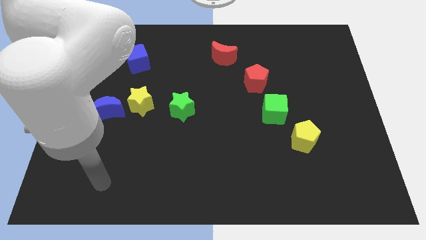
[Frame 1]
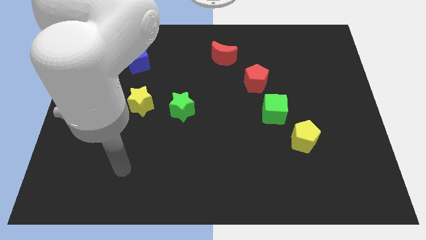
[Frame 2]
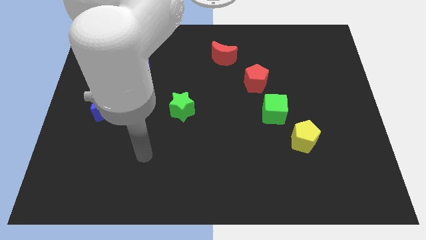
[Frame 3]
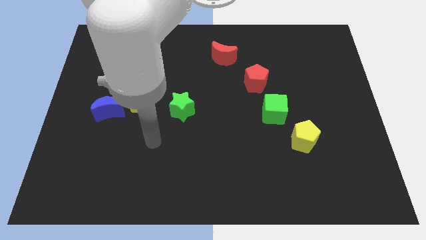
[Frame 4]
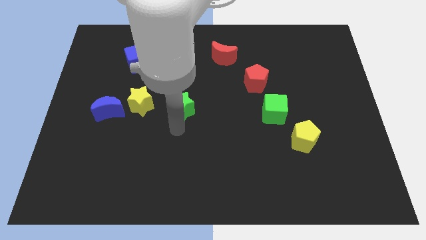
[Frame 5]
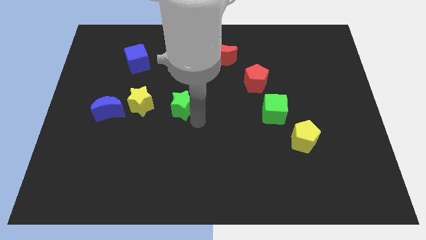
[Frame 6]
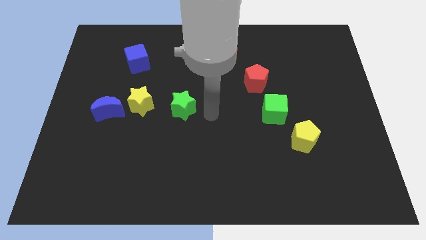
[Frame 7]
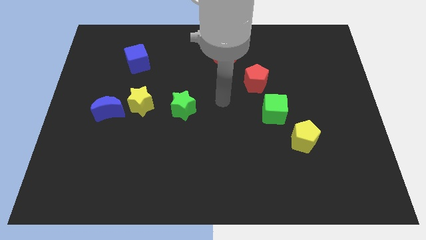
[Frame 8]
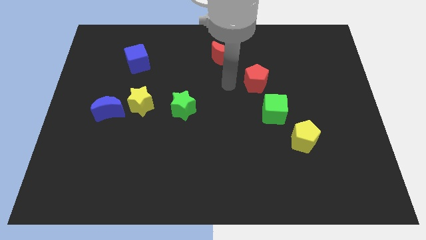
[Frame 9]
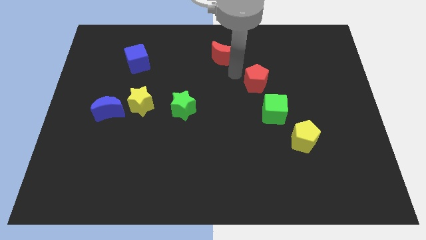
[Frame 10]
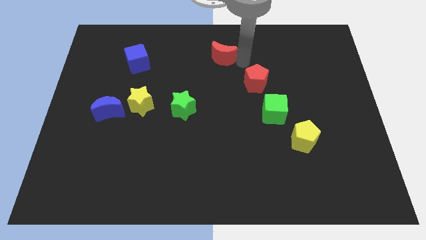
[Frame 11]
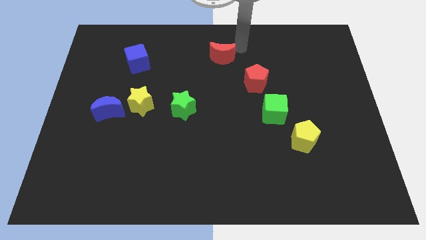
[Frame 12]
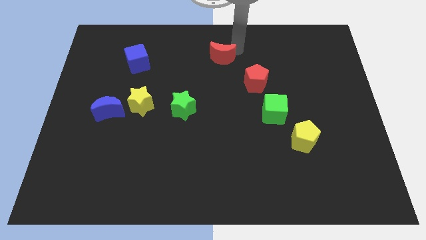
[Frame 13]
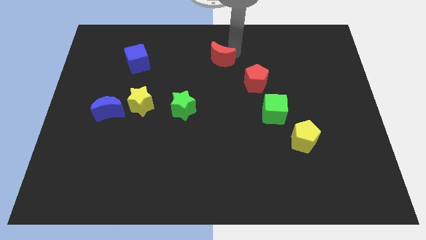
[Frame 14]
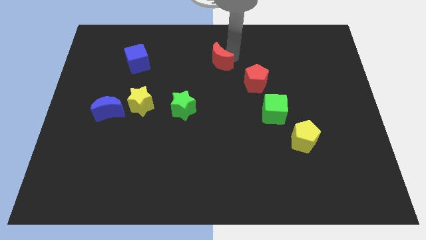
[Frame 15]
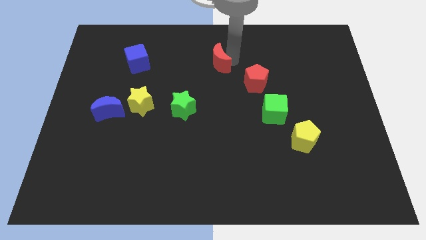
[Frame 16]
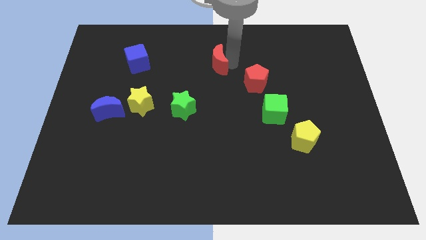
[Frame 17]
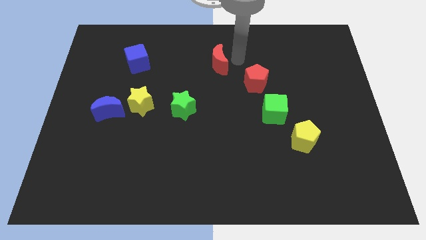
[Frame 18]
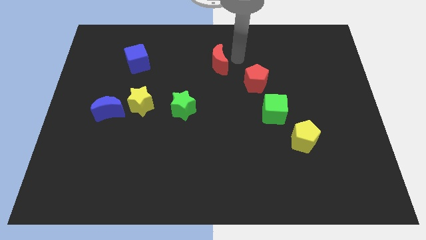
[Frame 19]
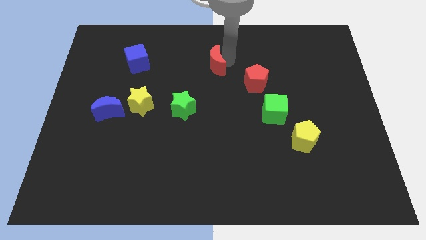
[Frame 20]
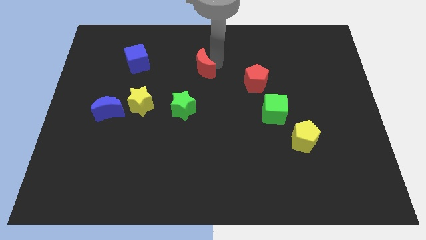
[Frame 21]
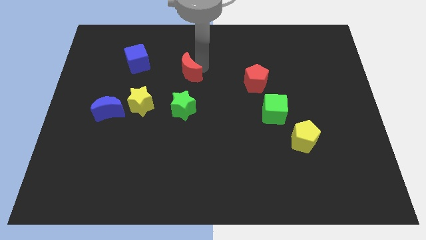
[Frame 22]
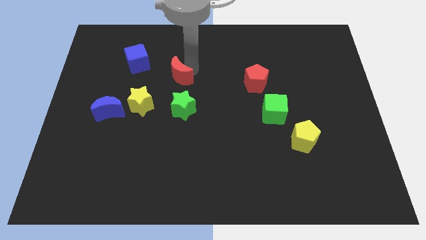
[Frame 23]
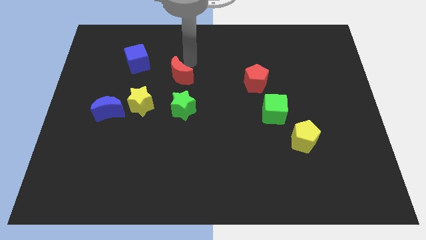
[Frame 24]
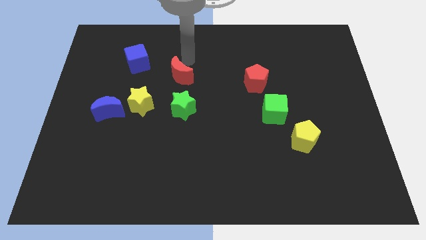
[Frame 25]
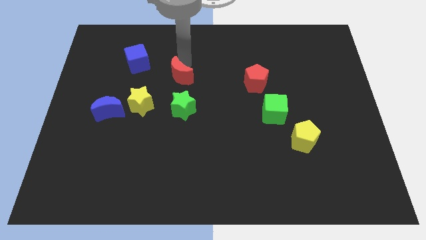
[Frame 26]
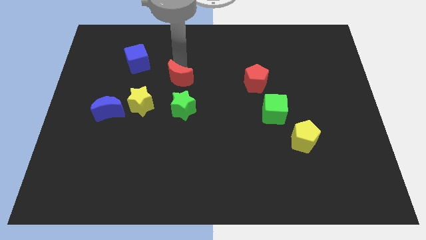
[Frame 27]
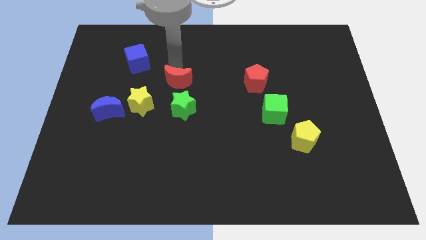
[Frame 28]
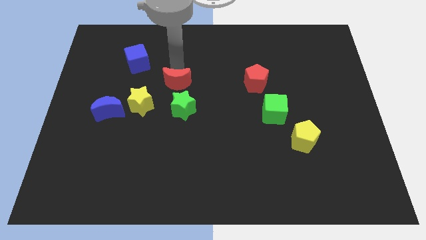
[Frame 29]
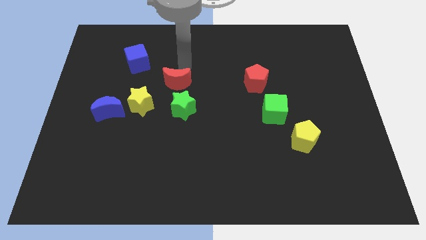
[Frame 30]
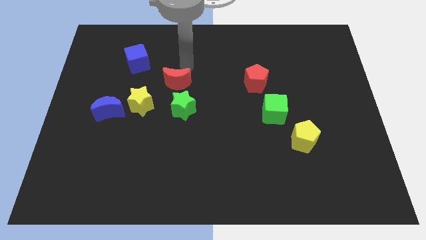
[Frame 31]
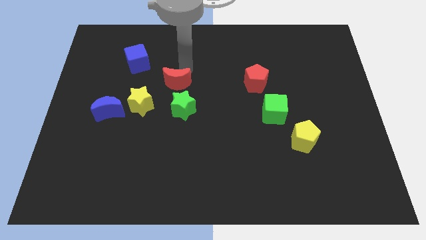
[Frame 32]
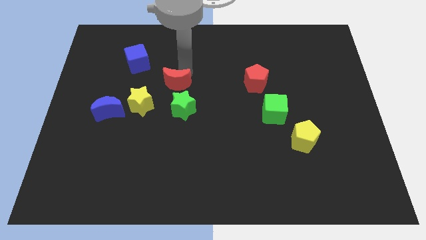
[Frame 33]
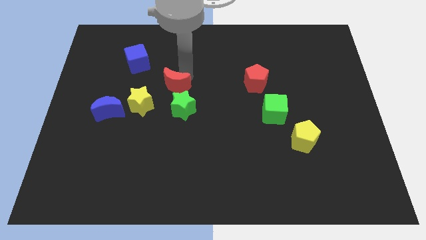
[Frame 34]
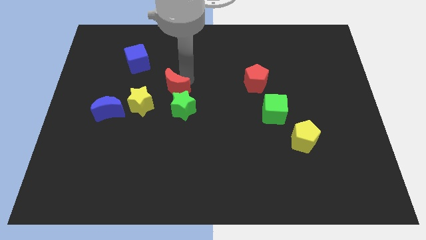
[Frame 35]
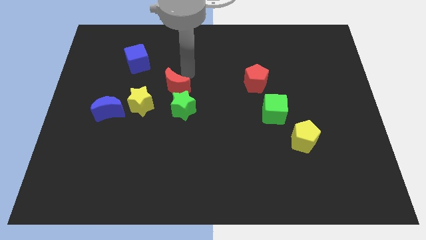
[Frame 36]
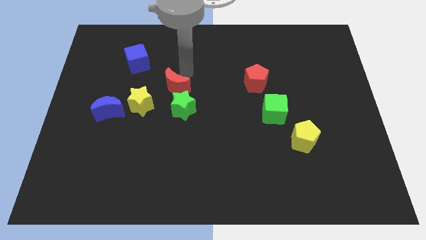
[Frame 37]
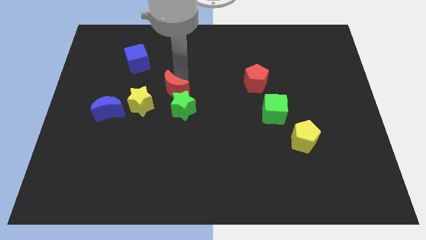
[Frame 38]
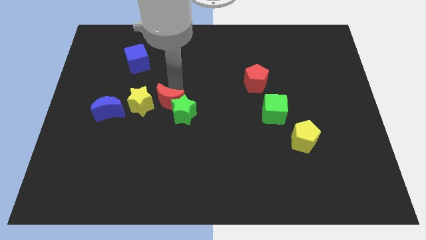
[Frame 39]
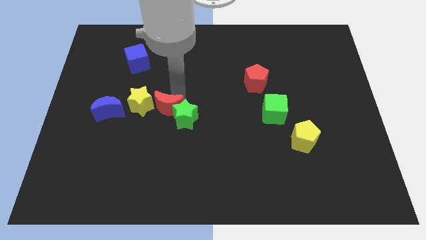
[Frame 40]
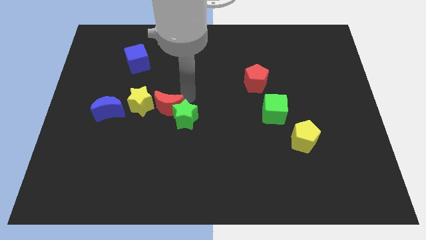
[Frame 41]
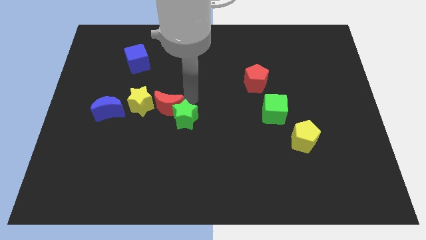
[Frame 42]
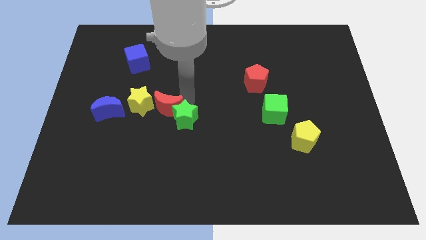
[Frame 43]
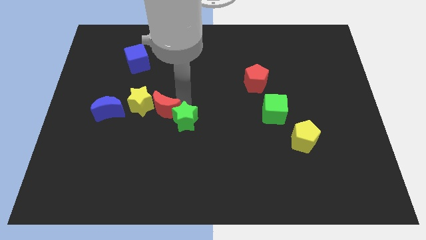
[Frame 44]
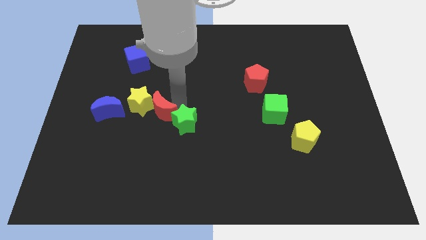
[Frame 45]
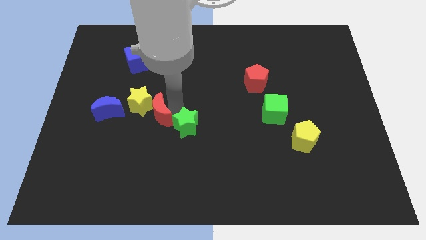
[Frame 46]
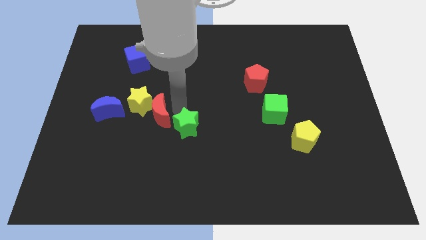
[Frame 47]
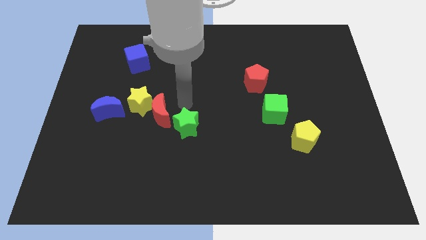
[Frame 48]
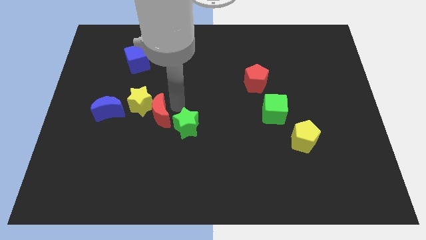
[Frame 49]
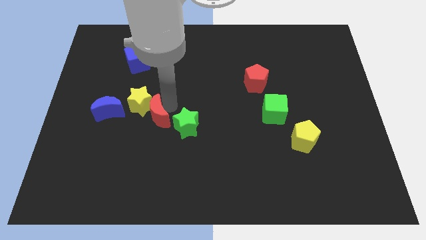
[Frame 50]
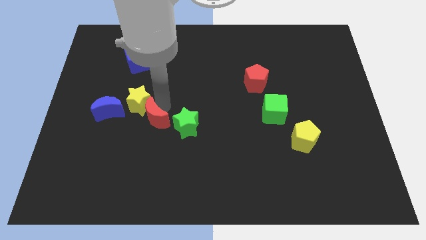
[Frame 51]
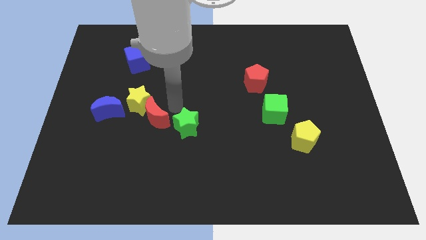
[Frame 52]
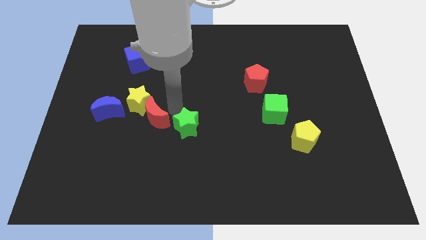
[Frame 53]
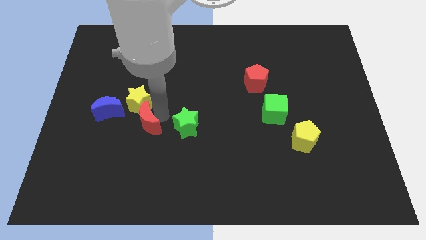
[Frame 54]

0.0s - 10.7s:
put the red moon to the bottom right side of the blue moon

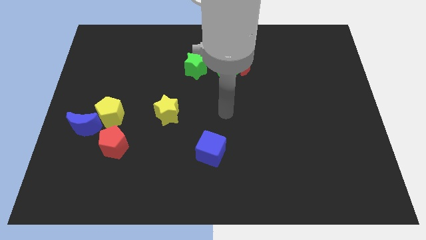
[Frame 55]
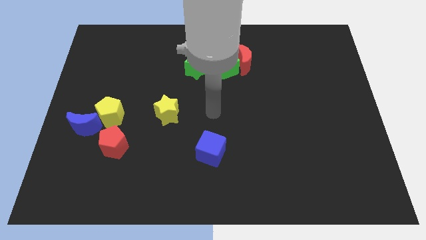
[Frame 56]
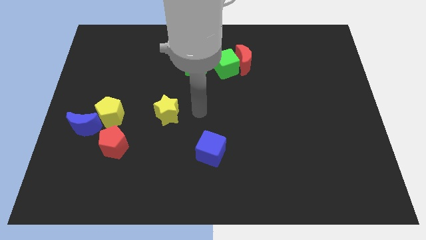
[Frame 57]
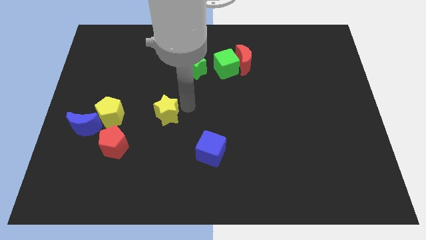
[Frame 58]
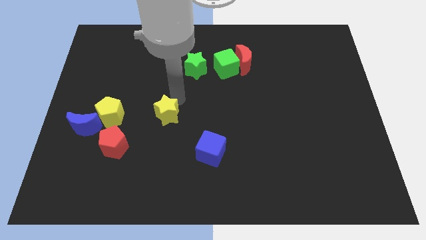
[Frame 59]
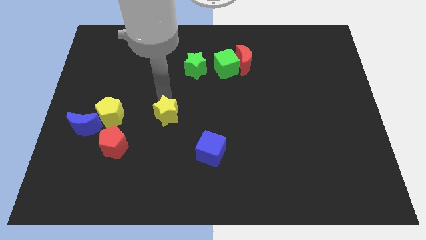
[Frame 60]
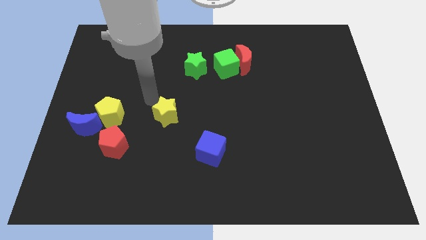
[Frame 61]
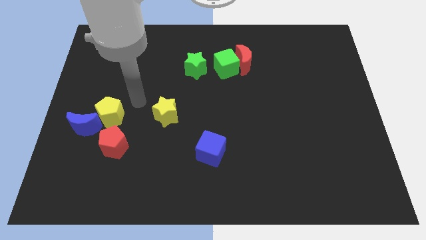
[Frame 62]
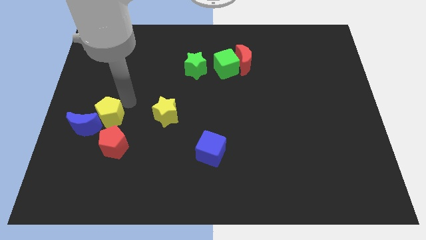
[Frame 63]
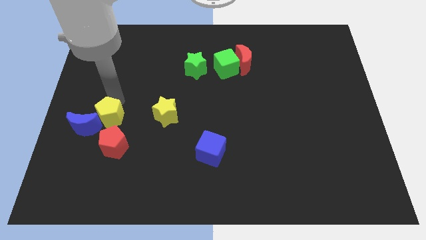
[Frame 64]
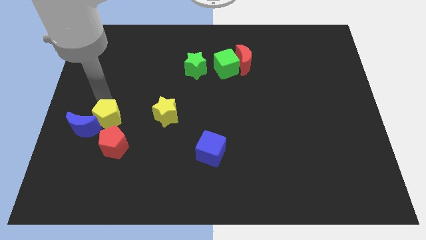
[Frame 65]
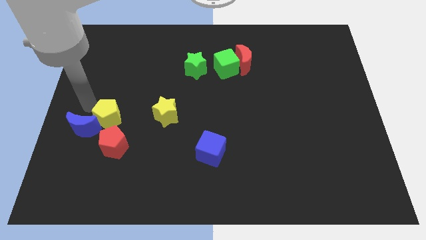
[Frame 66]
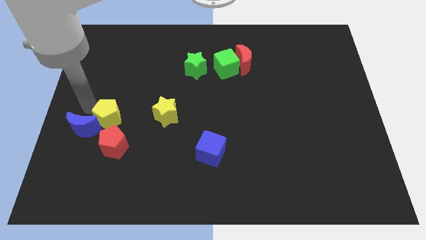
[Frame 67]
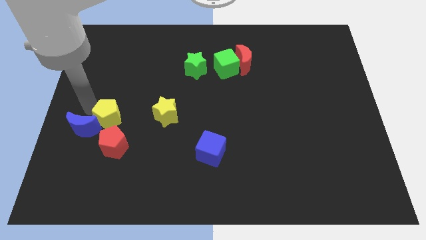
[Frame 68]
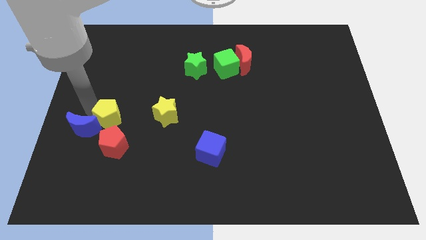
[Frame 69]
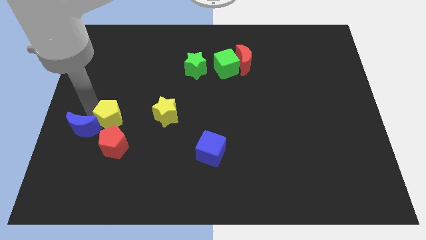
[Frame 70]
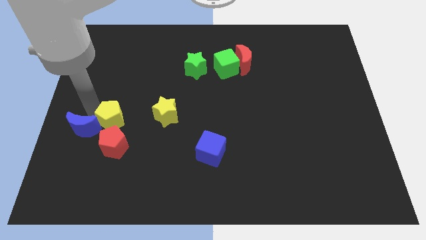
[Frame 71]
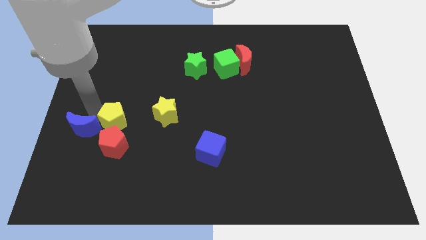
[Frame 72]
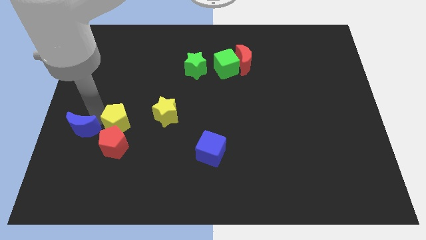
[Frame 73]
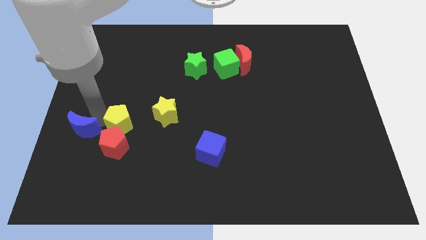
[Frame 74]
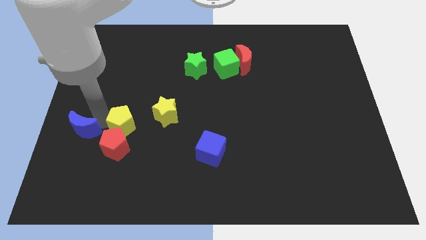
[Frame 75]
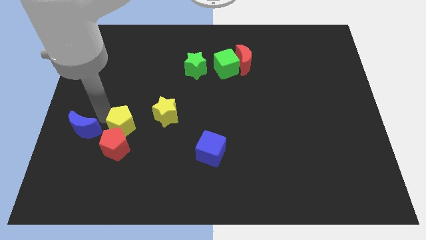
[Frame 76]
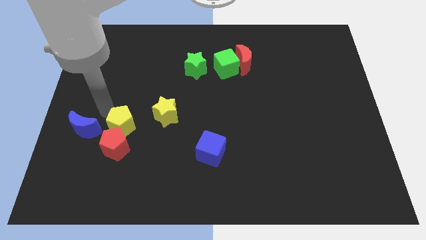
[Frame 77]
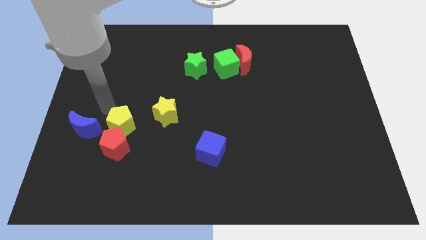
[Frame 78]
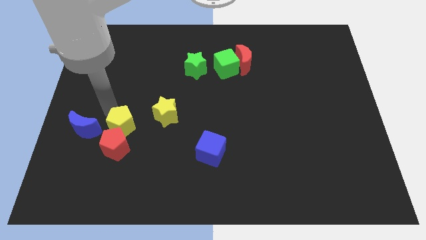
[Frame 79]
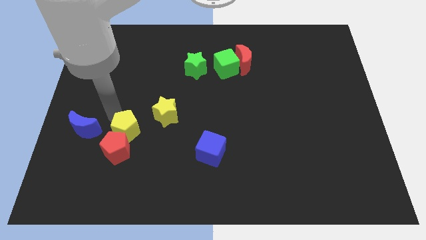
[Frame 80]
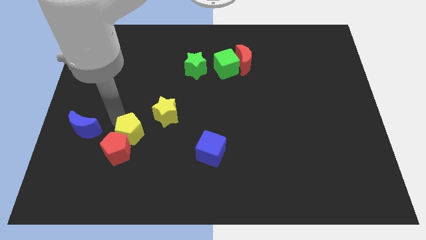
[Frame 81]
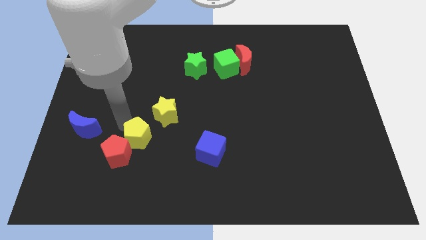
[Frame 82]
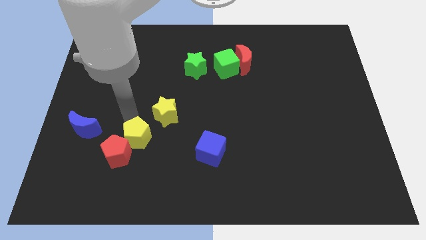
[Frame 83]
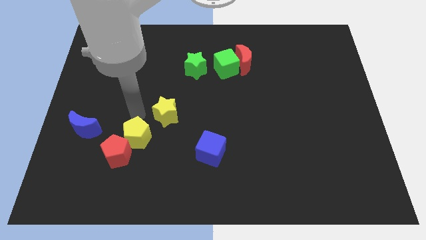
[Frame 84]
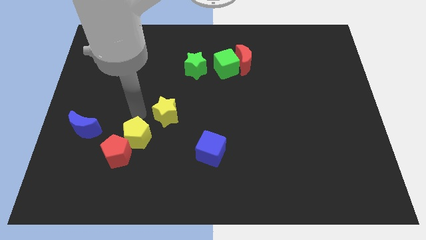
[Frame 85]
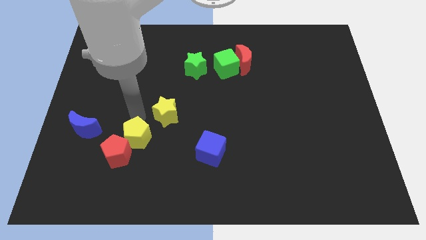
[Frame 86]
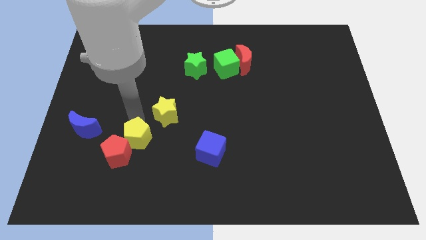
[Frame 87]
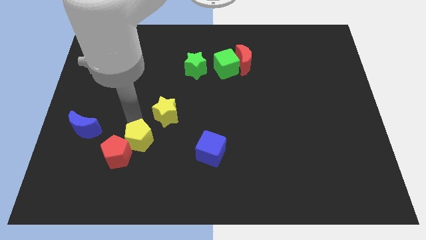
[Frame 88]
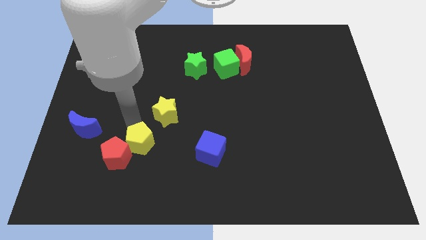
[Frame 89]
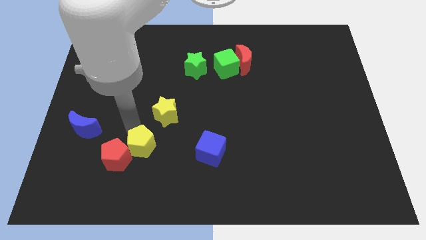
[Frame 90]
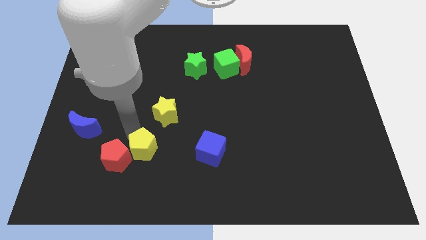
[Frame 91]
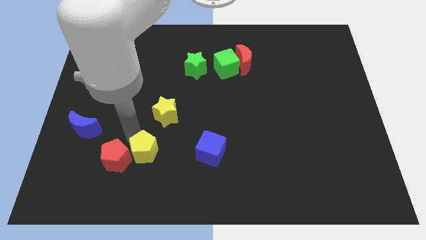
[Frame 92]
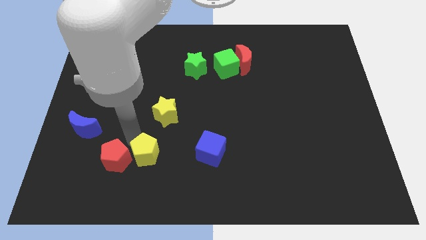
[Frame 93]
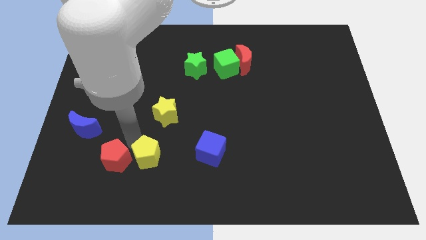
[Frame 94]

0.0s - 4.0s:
put the yellow pentagon diagonally down and to the right of the red pentagon
